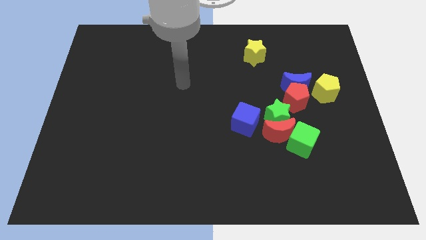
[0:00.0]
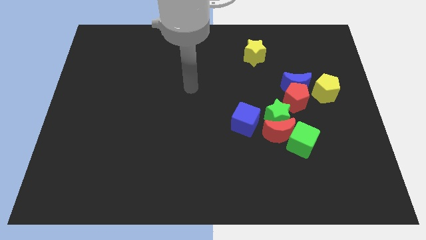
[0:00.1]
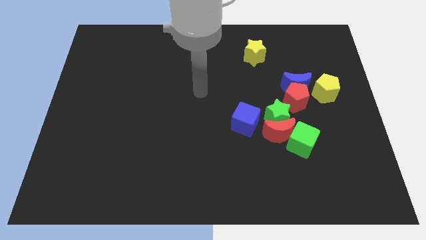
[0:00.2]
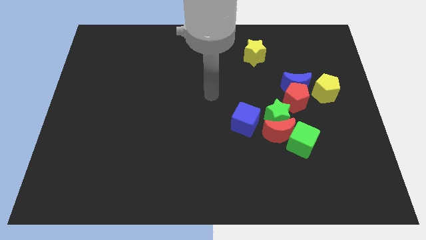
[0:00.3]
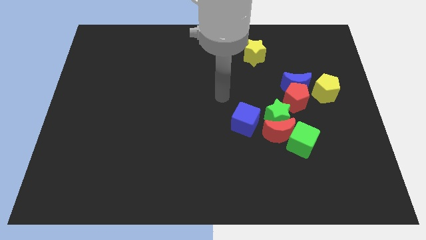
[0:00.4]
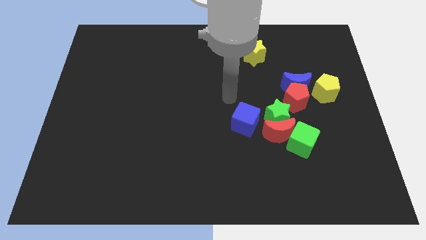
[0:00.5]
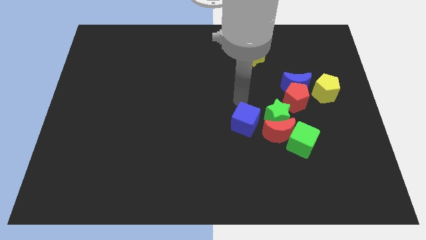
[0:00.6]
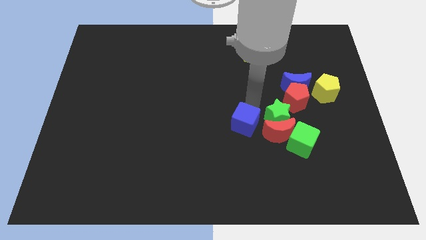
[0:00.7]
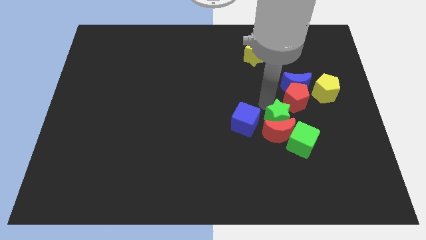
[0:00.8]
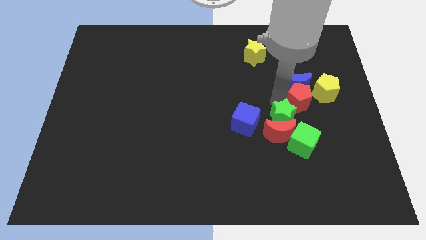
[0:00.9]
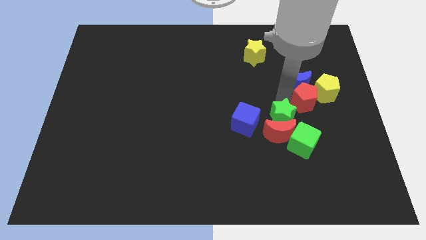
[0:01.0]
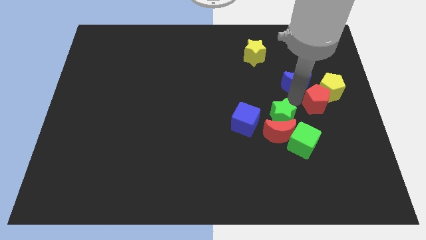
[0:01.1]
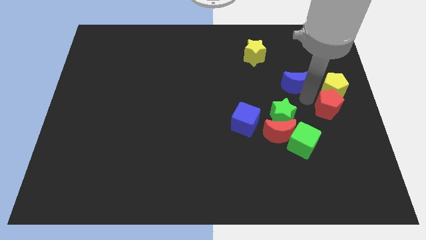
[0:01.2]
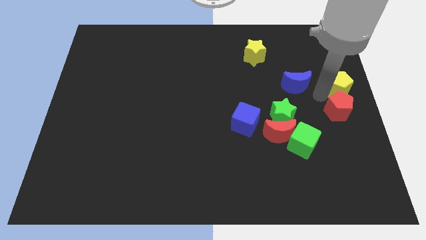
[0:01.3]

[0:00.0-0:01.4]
pull the blue moon apart from the red pentagon and yellow pentagon

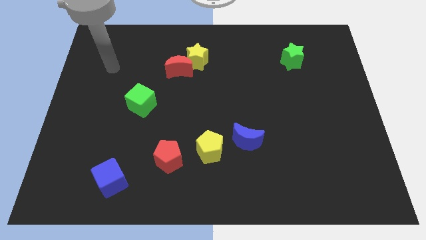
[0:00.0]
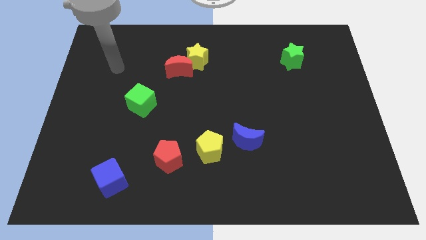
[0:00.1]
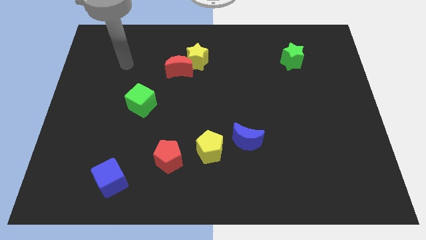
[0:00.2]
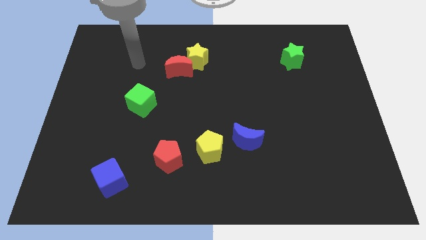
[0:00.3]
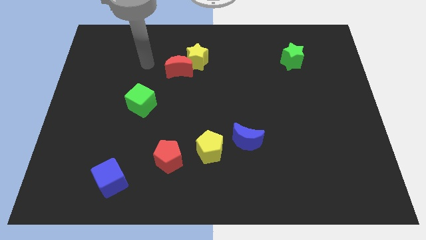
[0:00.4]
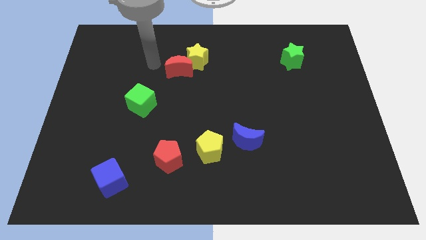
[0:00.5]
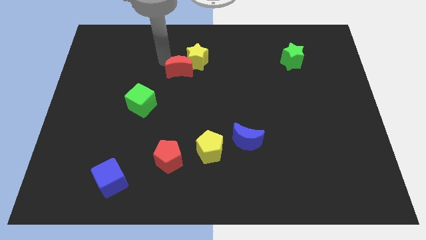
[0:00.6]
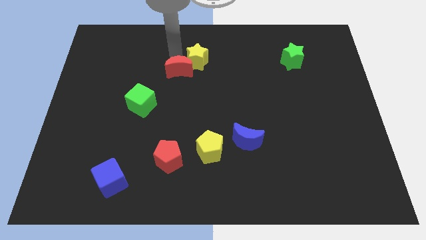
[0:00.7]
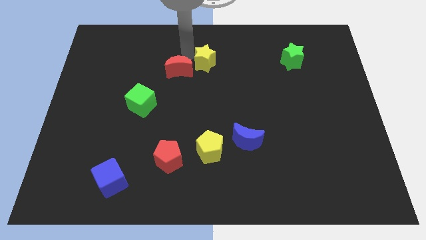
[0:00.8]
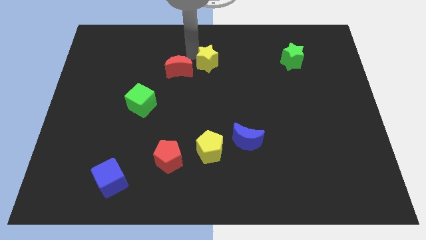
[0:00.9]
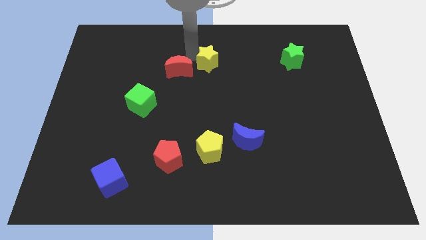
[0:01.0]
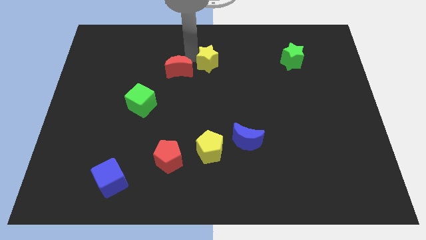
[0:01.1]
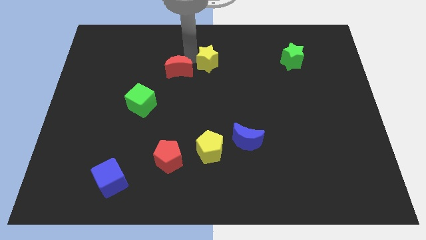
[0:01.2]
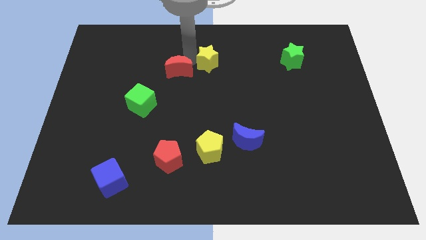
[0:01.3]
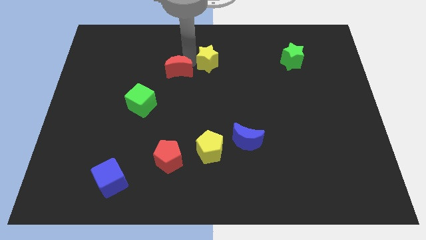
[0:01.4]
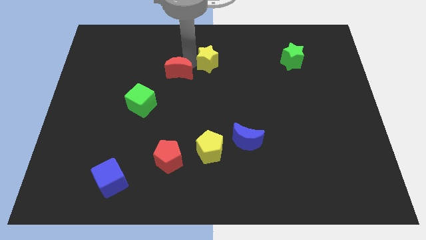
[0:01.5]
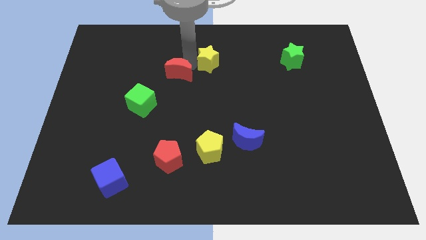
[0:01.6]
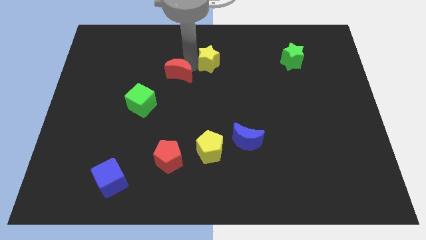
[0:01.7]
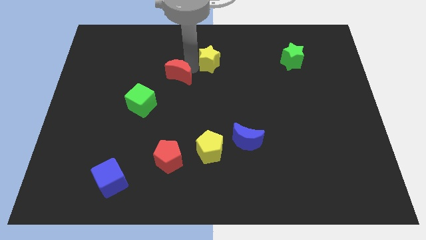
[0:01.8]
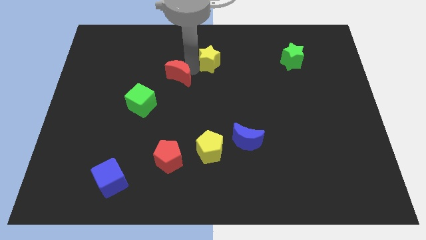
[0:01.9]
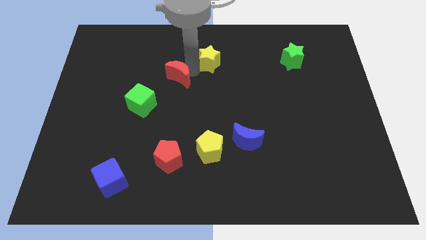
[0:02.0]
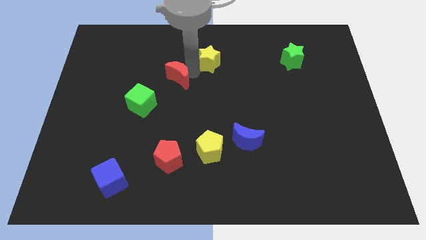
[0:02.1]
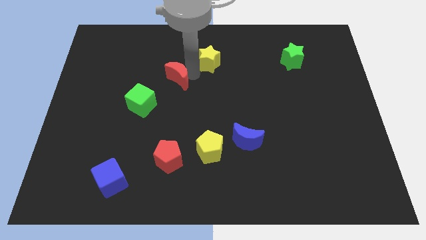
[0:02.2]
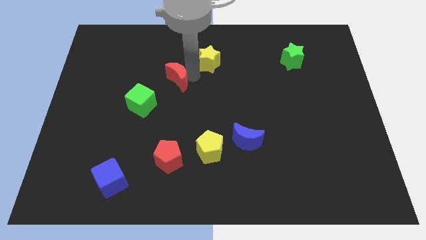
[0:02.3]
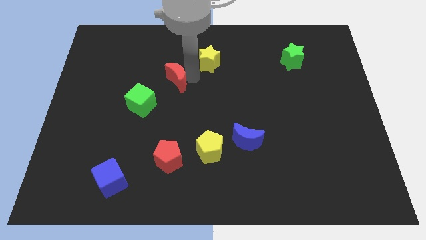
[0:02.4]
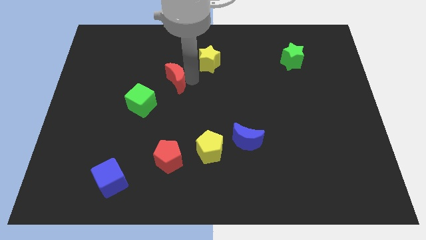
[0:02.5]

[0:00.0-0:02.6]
pull the red moon apart from the yellow star

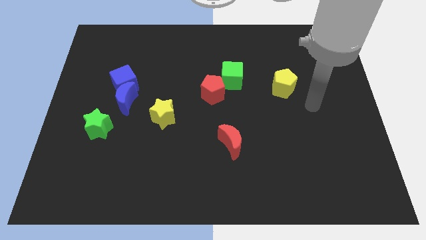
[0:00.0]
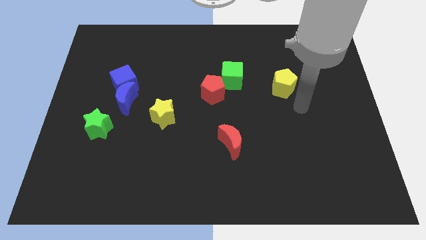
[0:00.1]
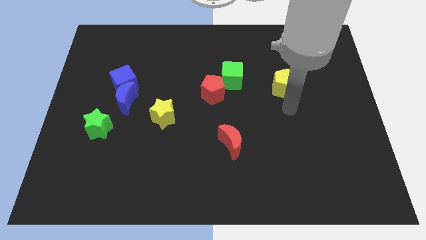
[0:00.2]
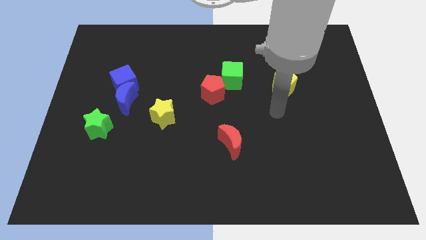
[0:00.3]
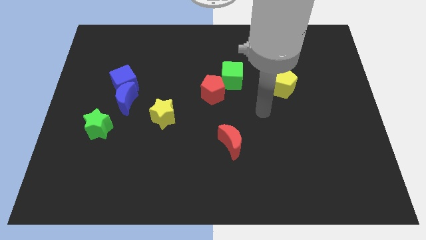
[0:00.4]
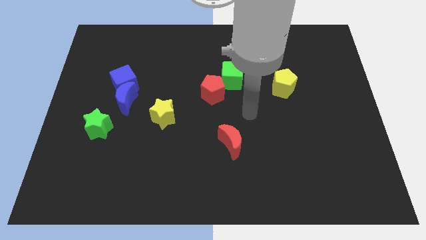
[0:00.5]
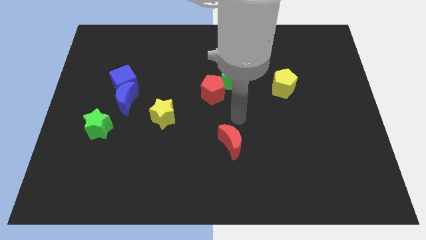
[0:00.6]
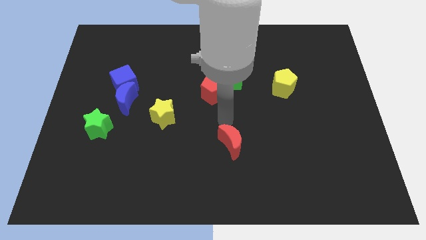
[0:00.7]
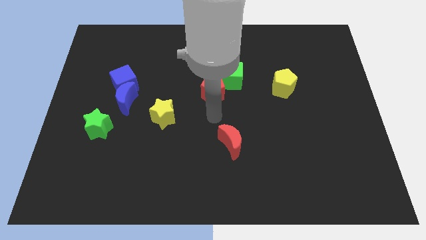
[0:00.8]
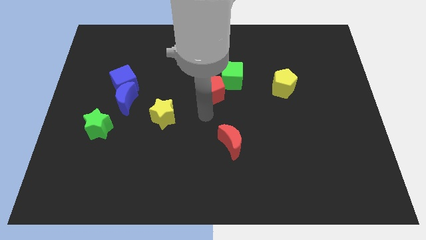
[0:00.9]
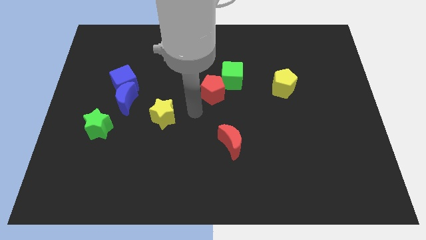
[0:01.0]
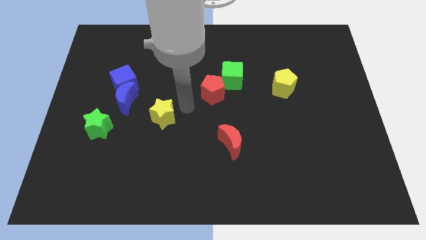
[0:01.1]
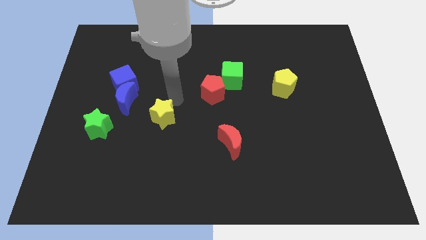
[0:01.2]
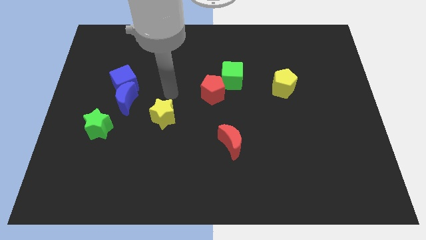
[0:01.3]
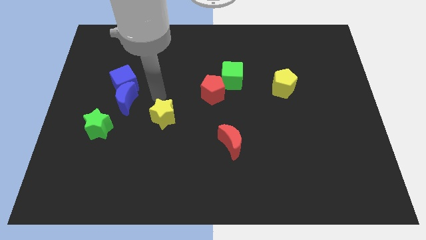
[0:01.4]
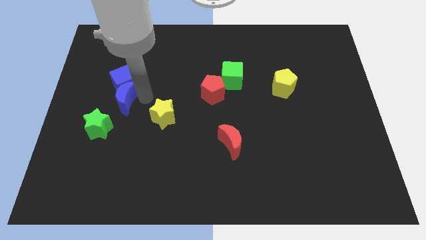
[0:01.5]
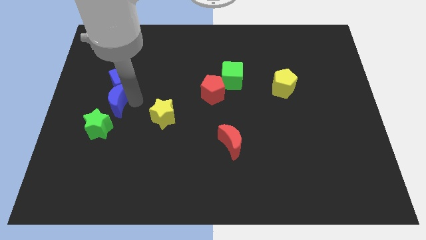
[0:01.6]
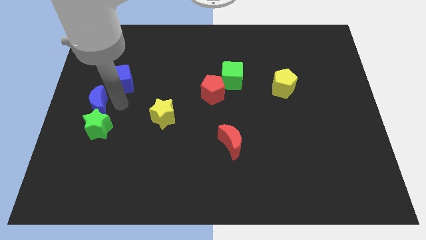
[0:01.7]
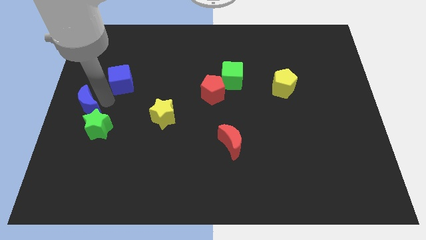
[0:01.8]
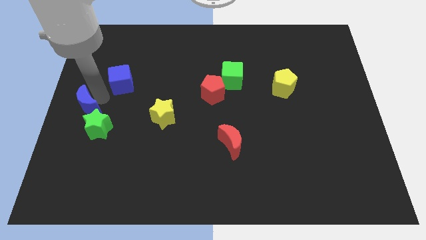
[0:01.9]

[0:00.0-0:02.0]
pull the blue cube apart from the blue moon

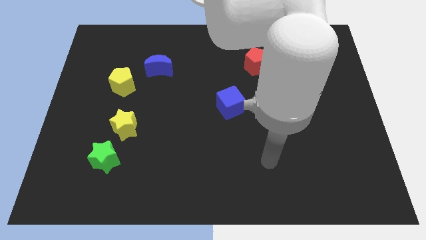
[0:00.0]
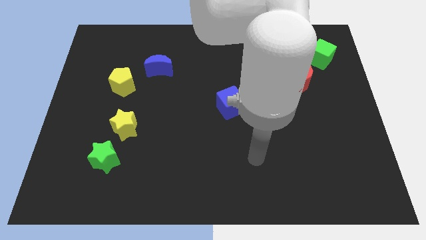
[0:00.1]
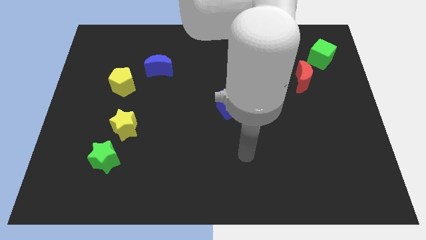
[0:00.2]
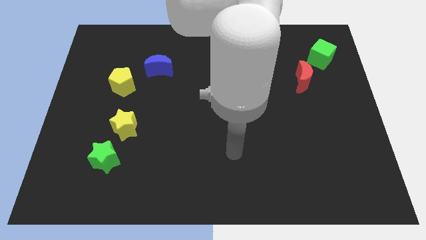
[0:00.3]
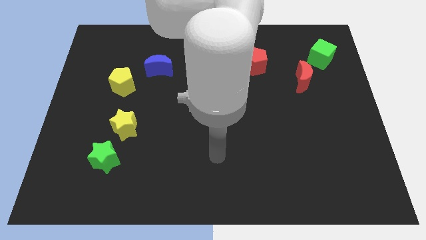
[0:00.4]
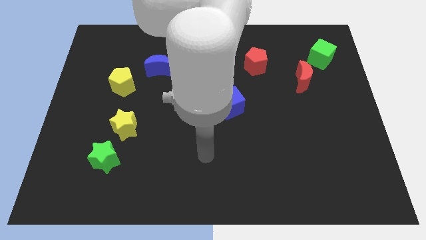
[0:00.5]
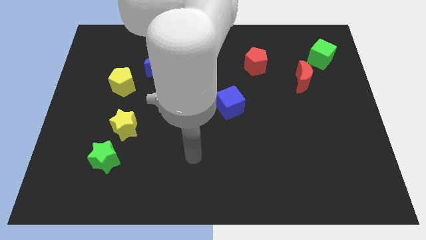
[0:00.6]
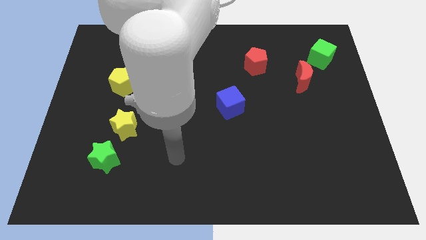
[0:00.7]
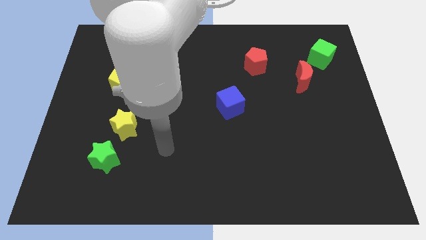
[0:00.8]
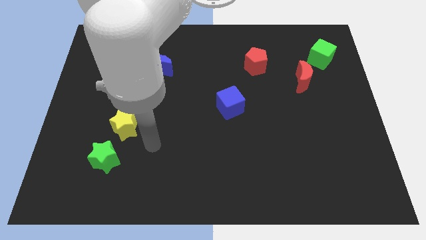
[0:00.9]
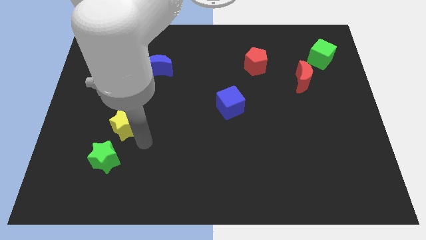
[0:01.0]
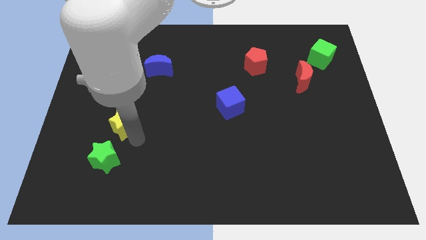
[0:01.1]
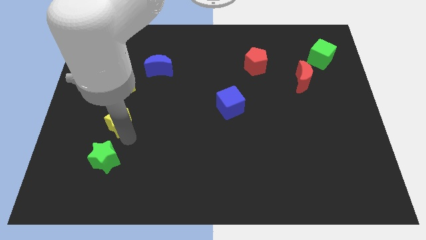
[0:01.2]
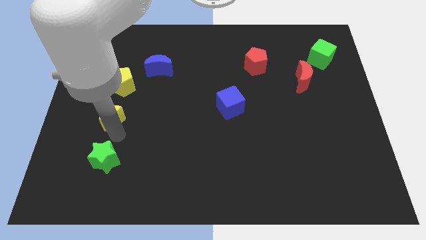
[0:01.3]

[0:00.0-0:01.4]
separate the green star from the yellow star

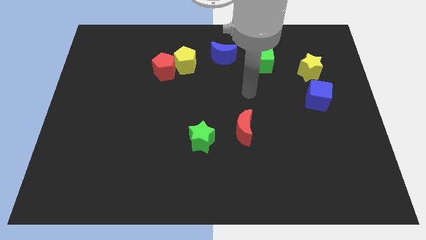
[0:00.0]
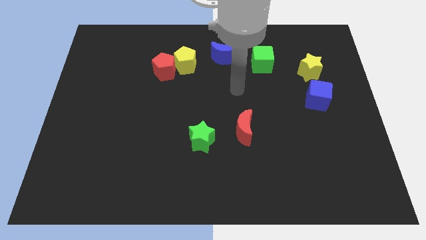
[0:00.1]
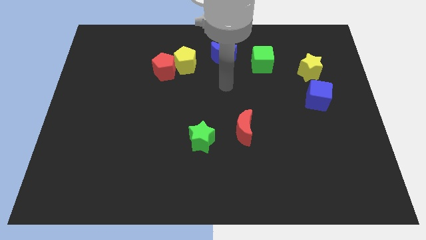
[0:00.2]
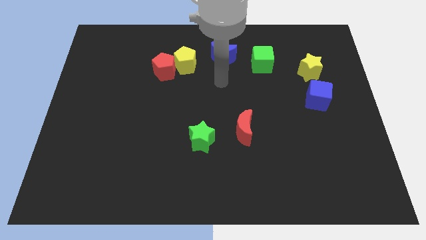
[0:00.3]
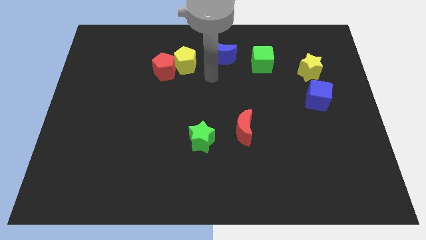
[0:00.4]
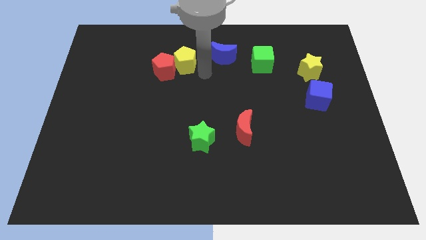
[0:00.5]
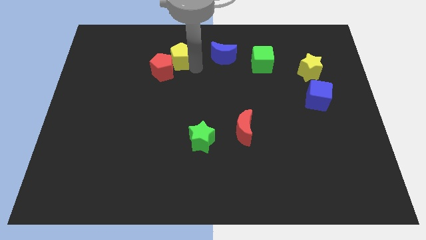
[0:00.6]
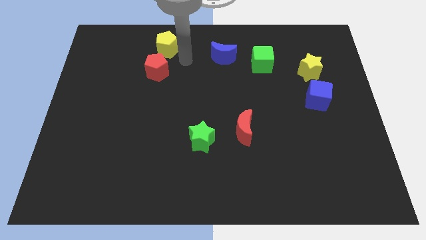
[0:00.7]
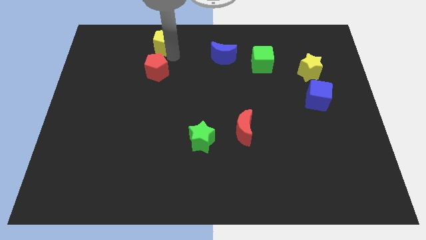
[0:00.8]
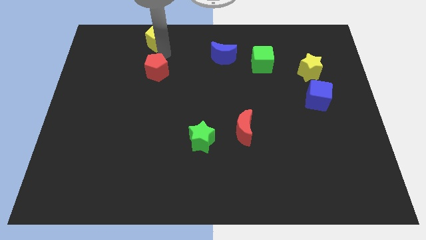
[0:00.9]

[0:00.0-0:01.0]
move the red pentagon away from the yellow pentagon

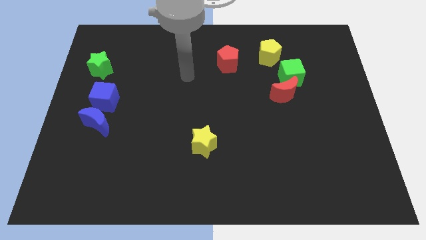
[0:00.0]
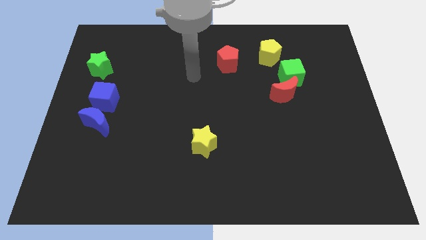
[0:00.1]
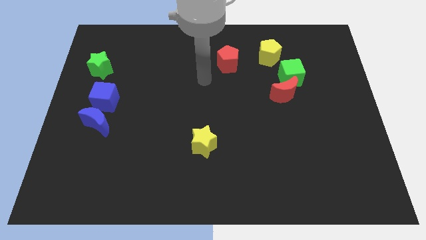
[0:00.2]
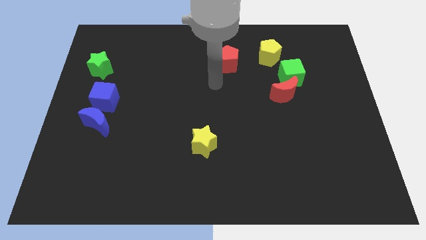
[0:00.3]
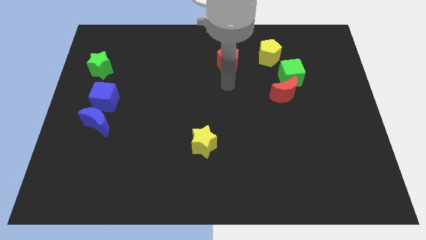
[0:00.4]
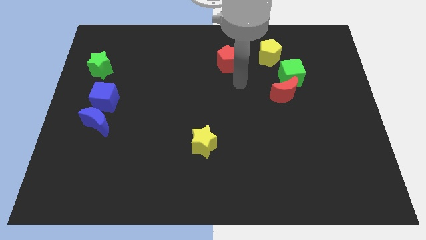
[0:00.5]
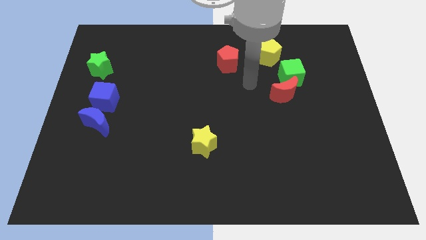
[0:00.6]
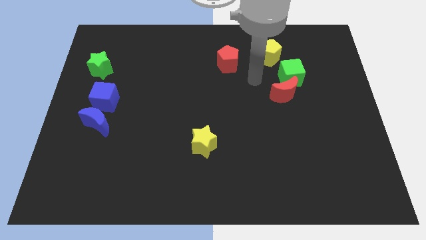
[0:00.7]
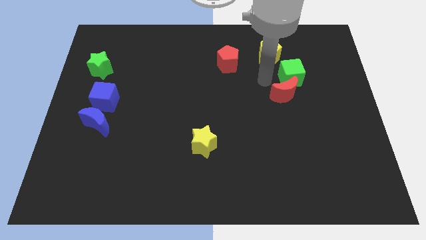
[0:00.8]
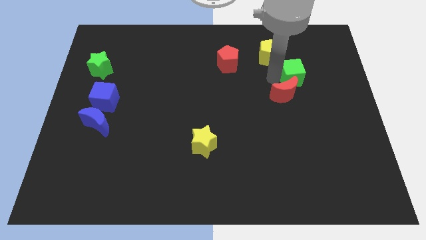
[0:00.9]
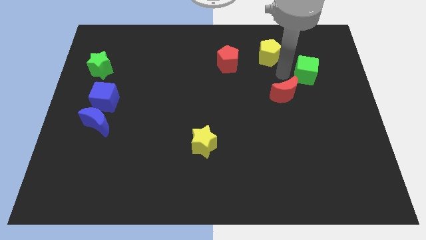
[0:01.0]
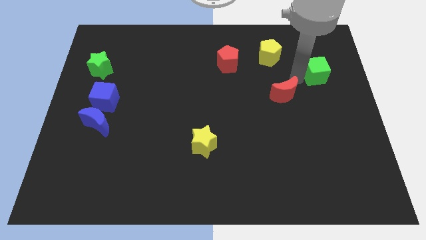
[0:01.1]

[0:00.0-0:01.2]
pull the red moon apart from the green cube
